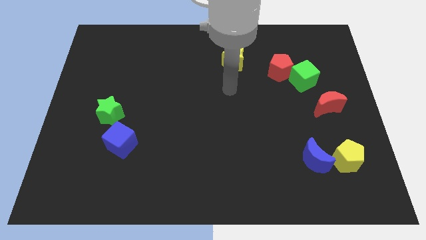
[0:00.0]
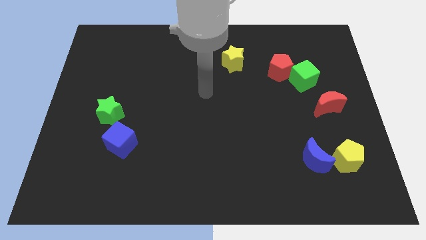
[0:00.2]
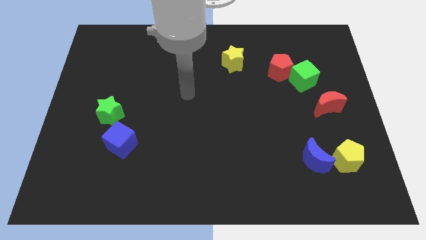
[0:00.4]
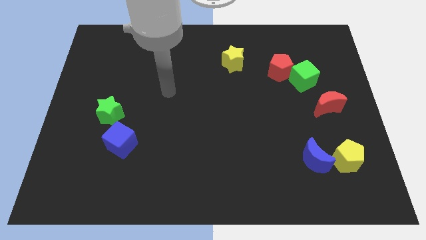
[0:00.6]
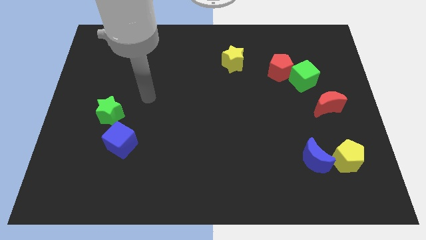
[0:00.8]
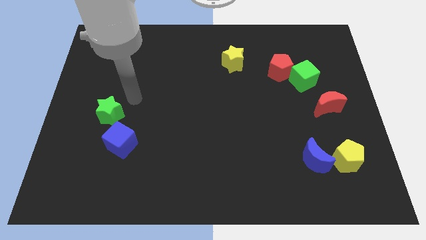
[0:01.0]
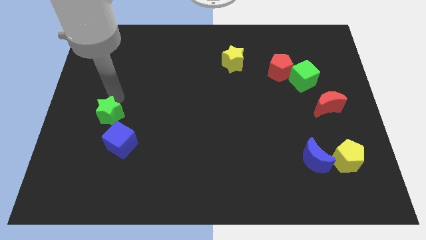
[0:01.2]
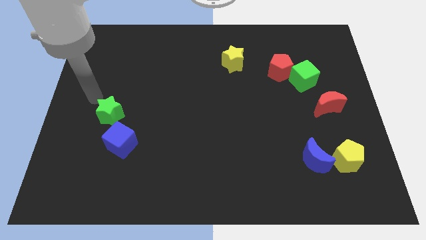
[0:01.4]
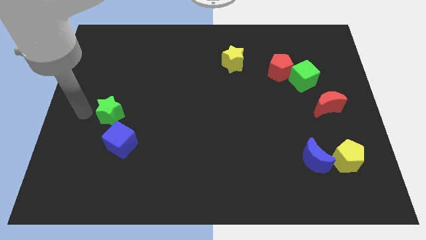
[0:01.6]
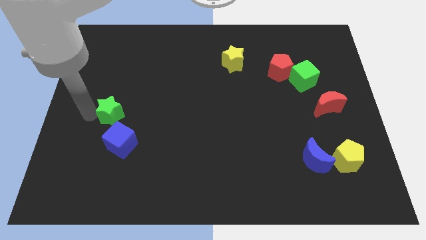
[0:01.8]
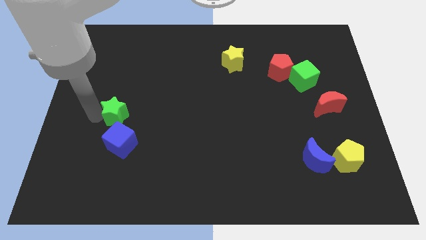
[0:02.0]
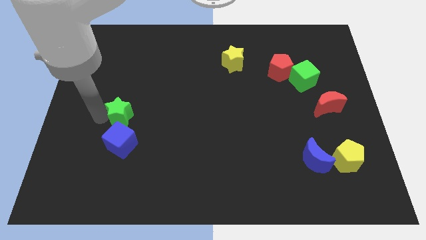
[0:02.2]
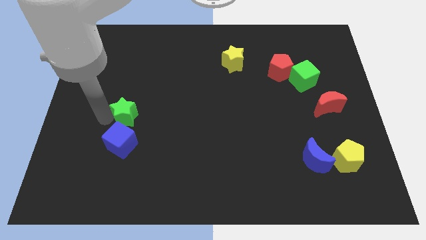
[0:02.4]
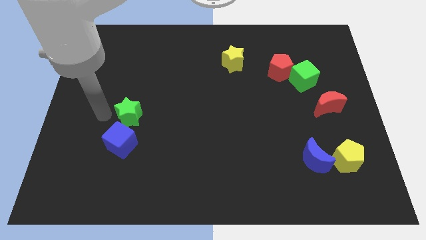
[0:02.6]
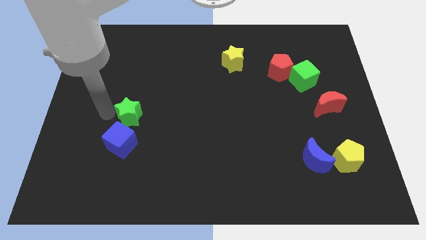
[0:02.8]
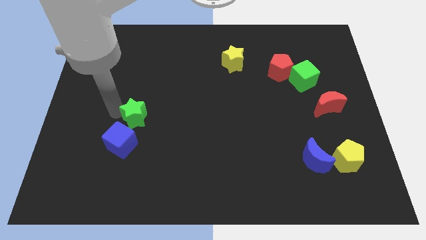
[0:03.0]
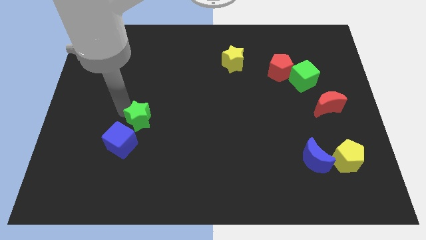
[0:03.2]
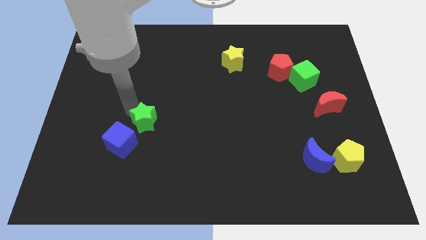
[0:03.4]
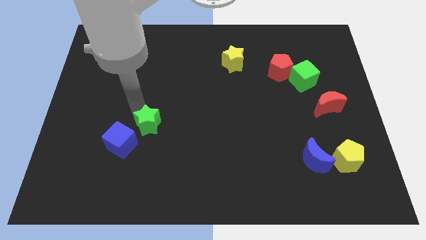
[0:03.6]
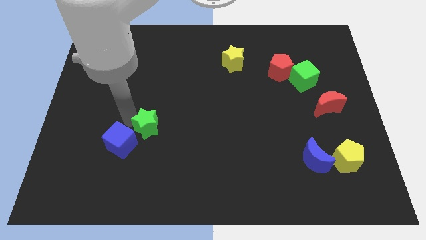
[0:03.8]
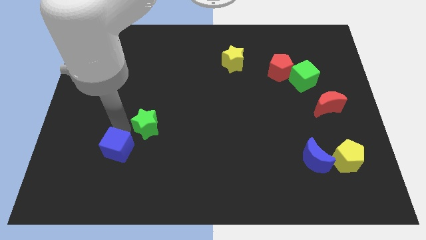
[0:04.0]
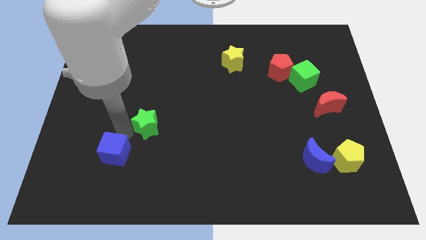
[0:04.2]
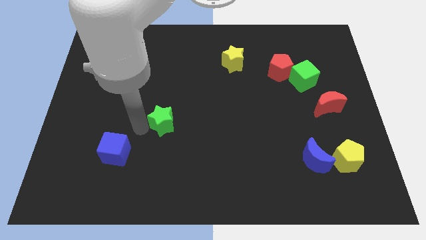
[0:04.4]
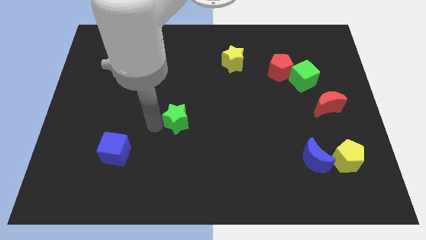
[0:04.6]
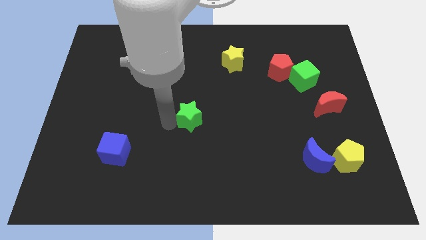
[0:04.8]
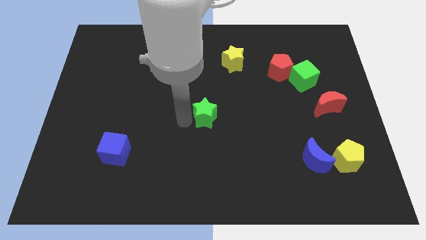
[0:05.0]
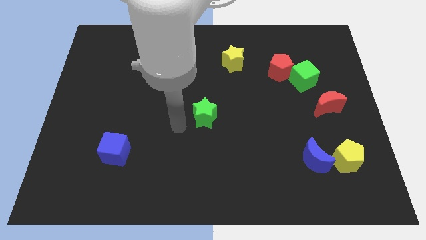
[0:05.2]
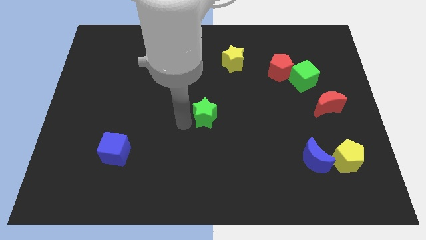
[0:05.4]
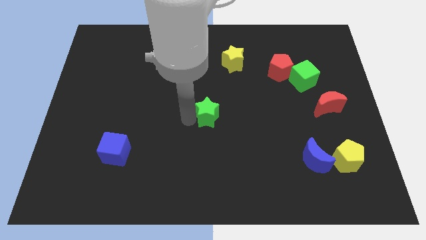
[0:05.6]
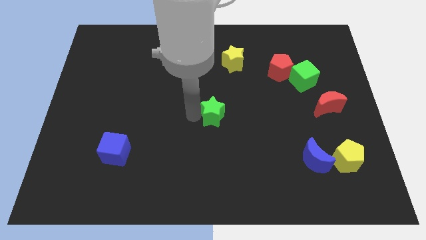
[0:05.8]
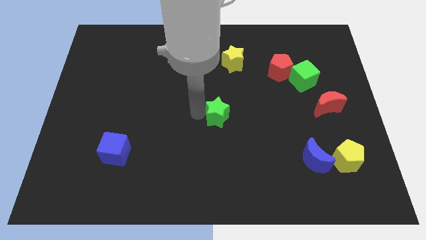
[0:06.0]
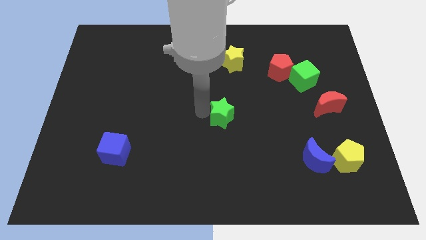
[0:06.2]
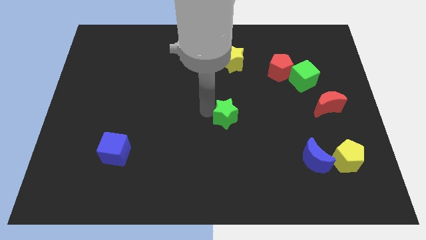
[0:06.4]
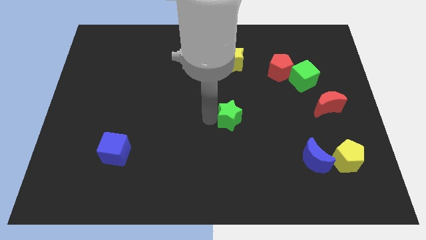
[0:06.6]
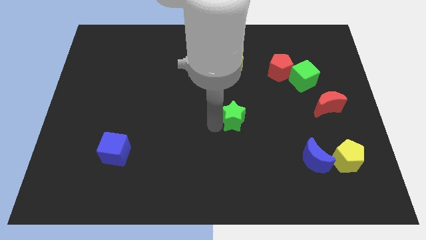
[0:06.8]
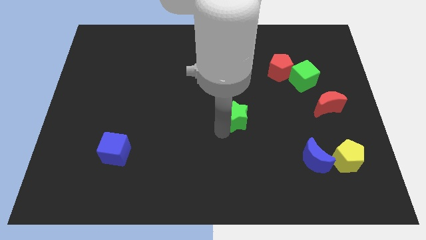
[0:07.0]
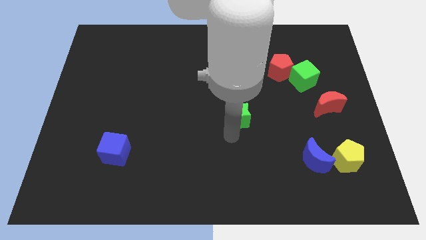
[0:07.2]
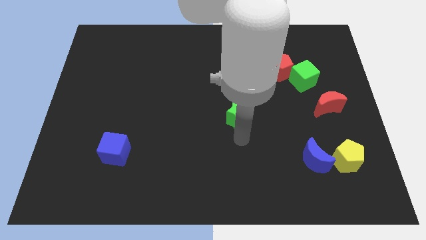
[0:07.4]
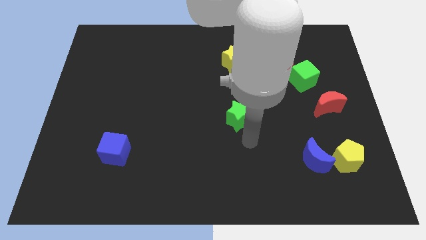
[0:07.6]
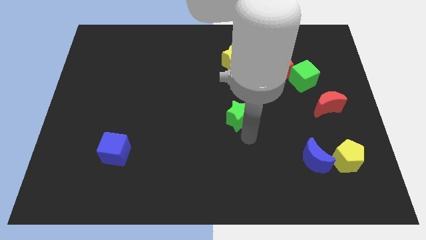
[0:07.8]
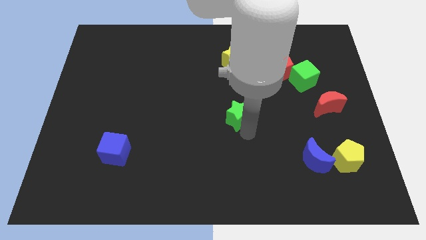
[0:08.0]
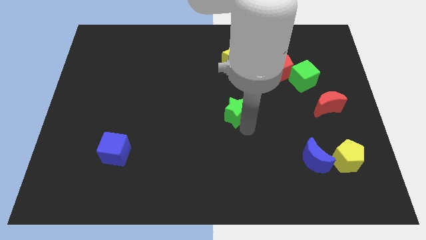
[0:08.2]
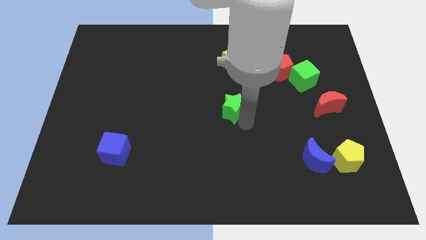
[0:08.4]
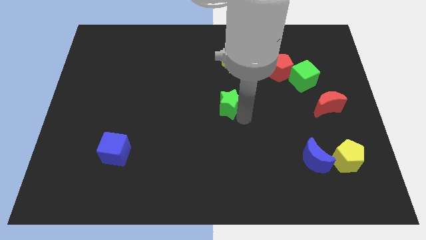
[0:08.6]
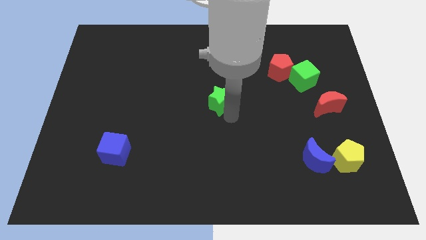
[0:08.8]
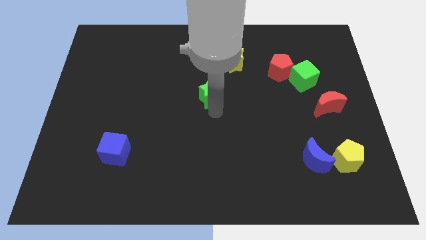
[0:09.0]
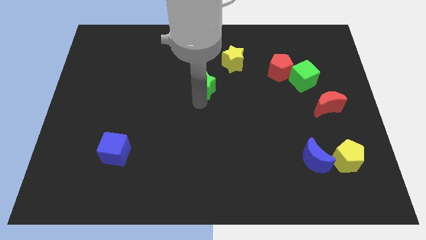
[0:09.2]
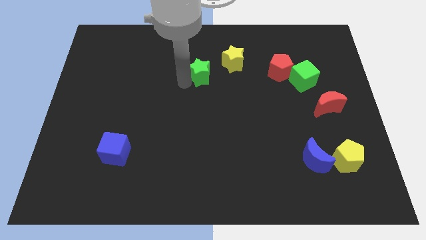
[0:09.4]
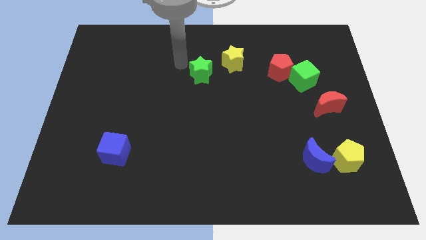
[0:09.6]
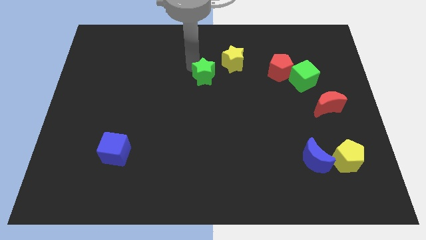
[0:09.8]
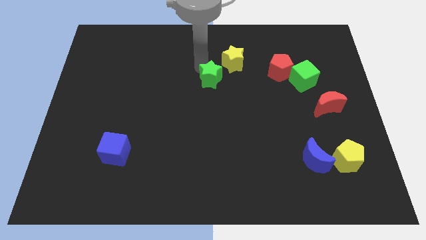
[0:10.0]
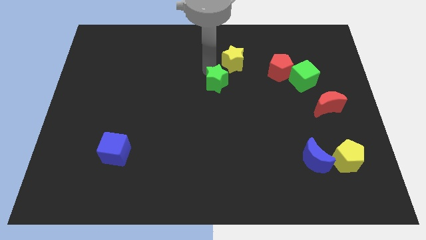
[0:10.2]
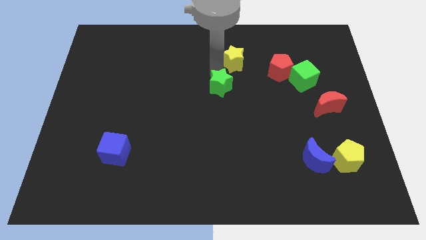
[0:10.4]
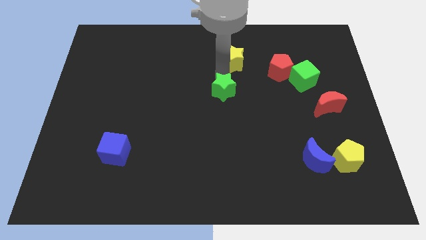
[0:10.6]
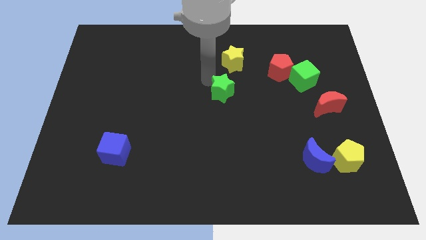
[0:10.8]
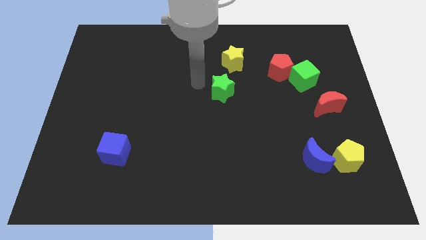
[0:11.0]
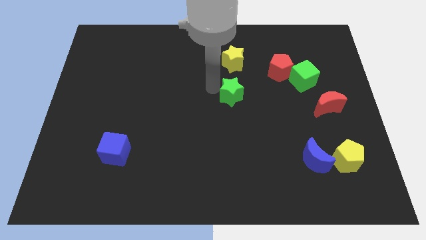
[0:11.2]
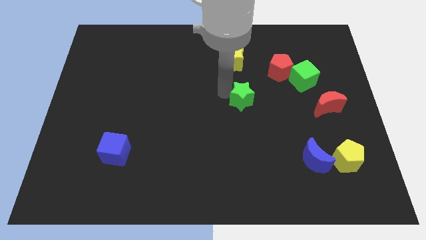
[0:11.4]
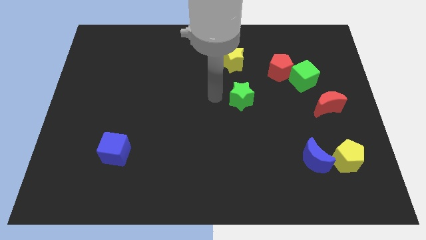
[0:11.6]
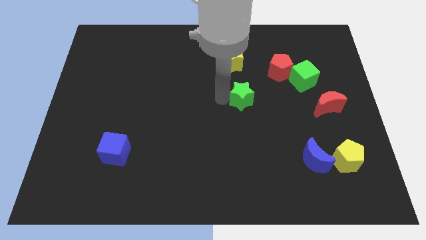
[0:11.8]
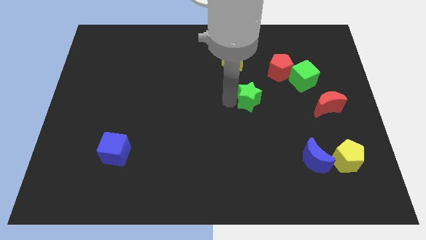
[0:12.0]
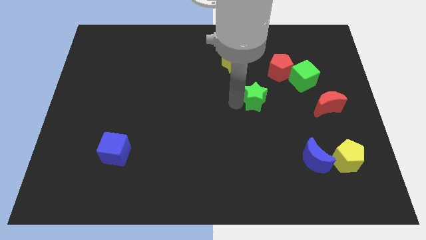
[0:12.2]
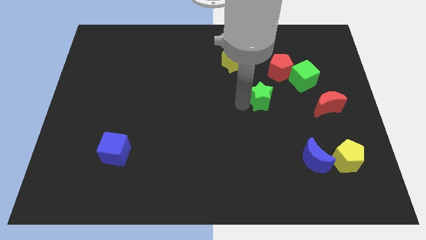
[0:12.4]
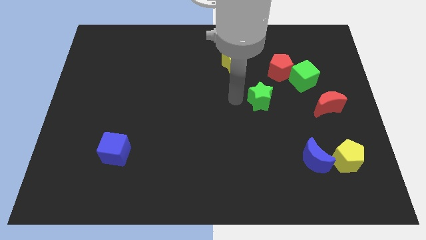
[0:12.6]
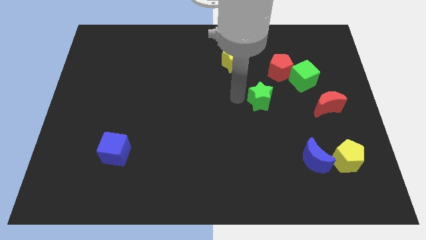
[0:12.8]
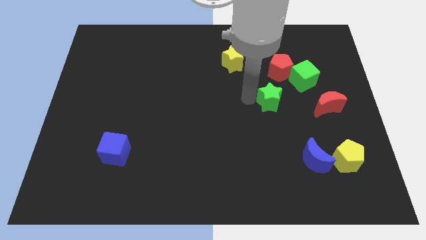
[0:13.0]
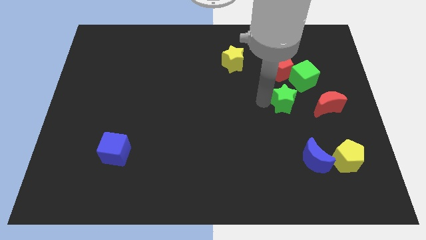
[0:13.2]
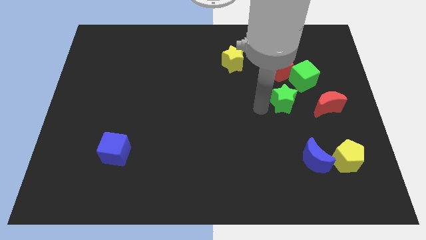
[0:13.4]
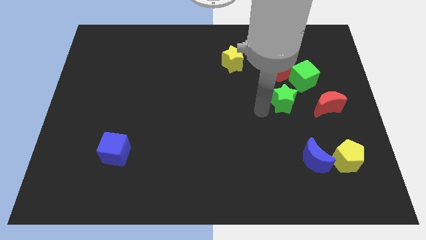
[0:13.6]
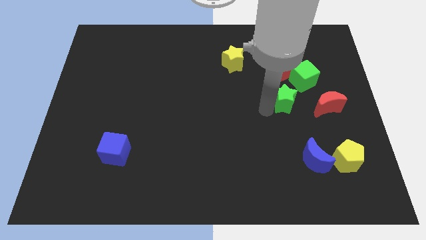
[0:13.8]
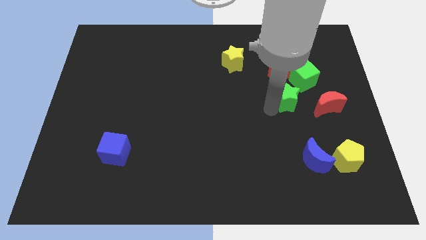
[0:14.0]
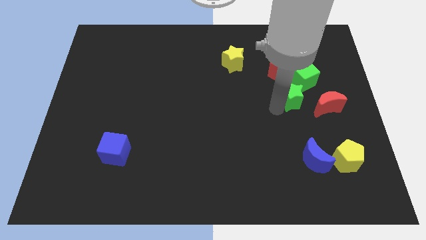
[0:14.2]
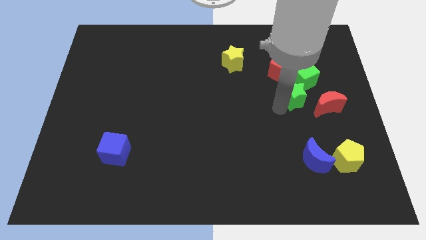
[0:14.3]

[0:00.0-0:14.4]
slide the green star diagonally down and to the right of the red pentagon
